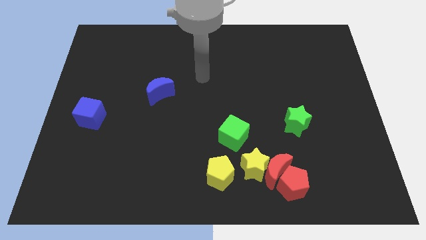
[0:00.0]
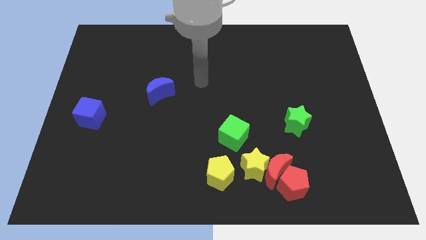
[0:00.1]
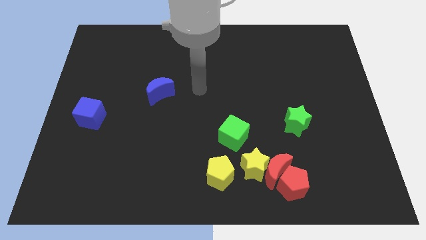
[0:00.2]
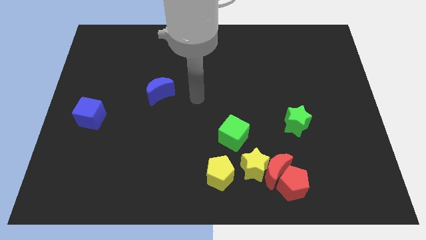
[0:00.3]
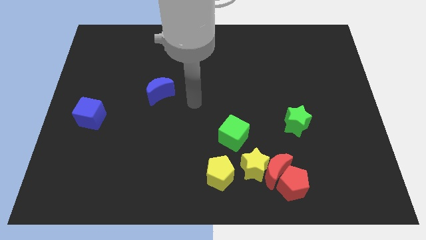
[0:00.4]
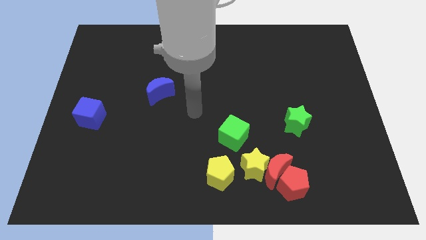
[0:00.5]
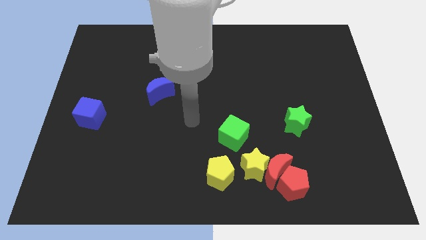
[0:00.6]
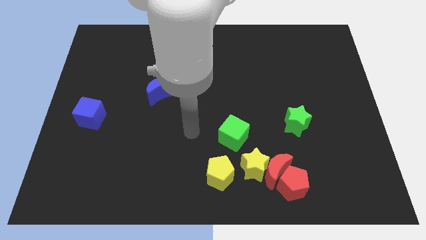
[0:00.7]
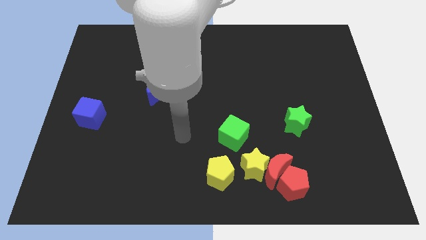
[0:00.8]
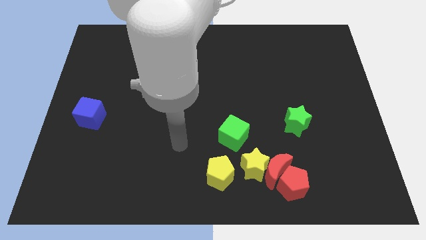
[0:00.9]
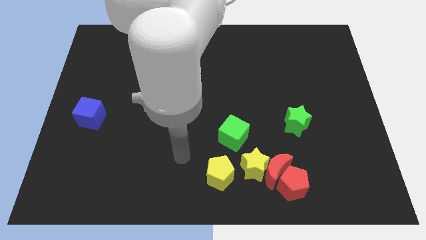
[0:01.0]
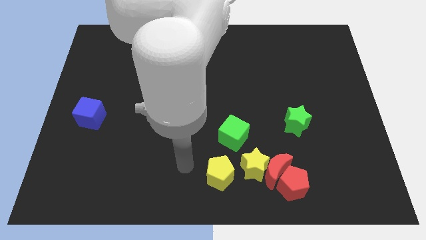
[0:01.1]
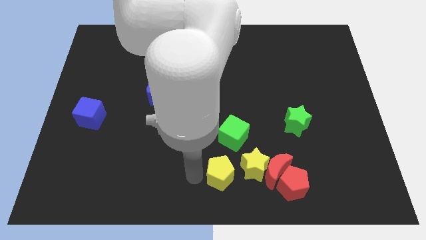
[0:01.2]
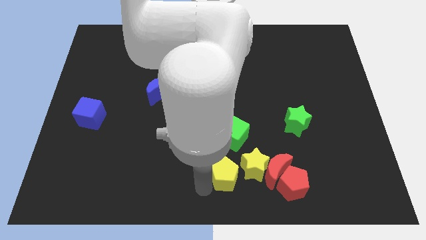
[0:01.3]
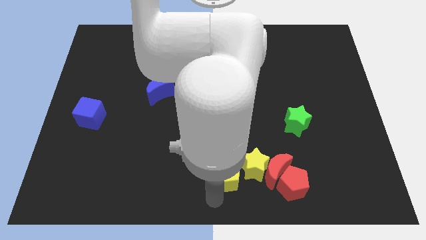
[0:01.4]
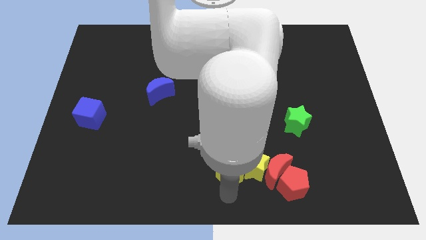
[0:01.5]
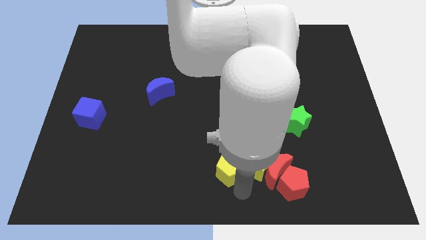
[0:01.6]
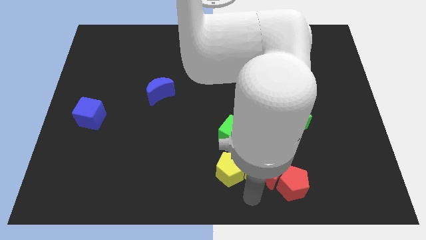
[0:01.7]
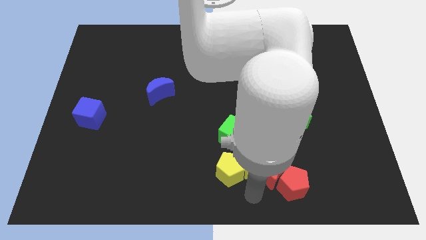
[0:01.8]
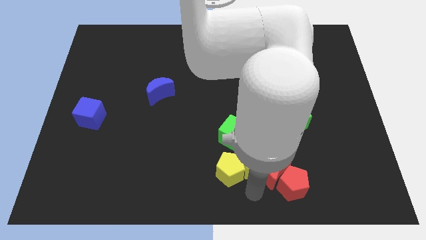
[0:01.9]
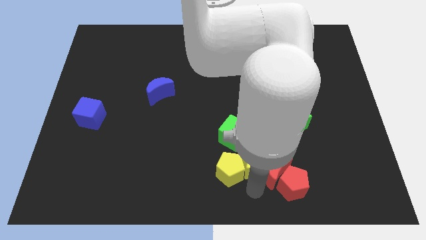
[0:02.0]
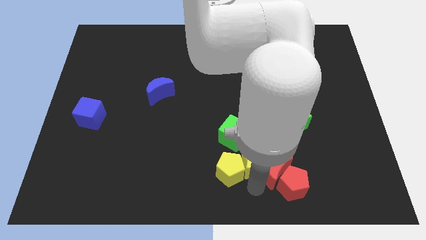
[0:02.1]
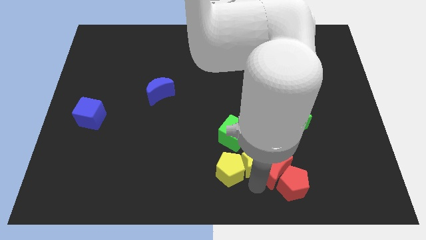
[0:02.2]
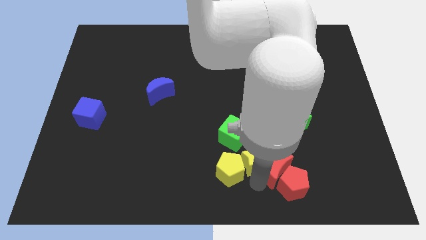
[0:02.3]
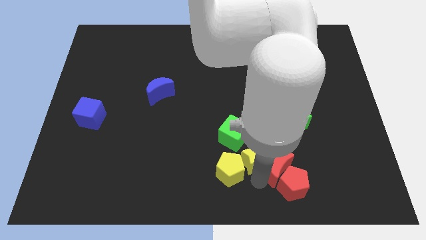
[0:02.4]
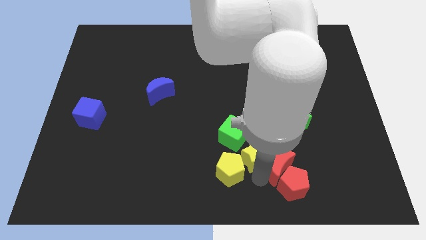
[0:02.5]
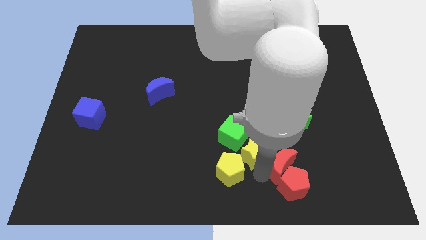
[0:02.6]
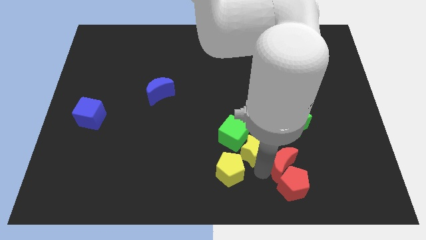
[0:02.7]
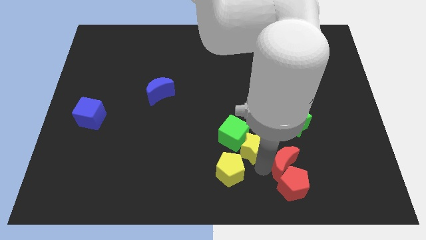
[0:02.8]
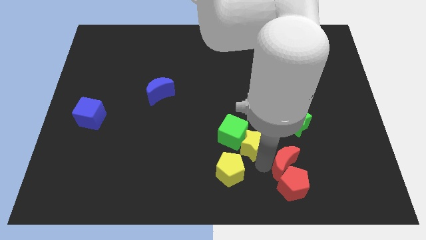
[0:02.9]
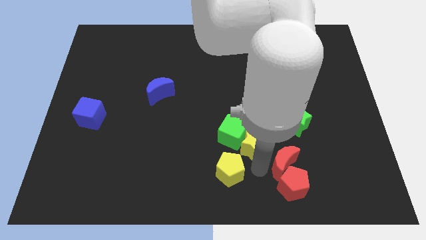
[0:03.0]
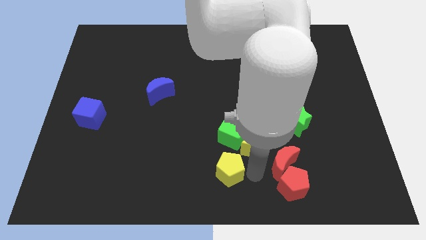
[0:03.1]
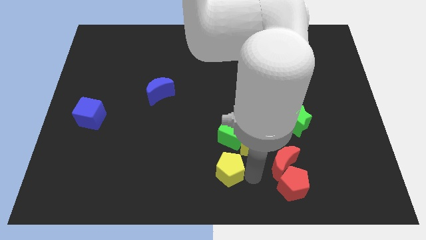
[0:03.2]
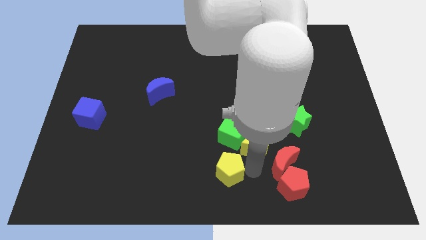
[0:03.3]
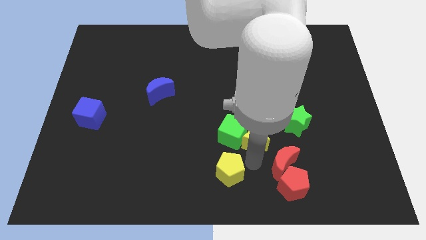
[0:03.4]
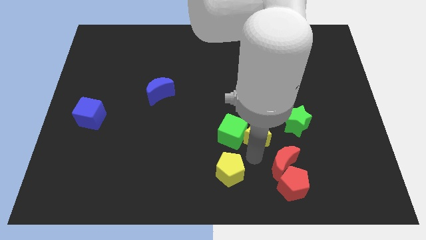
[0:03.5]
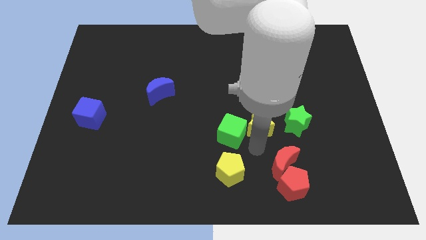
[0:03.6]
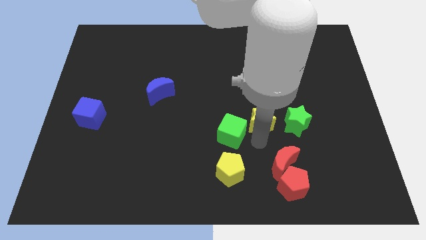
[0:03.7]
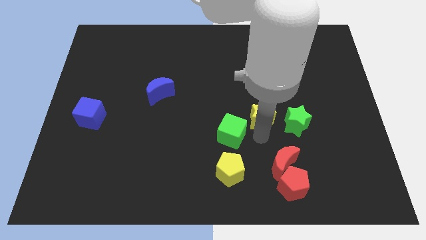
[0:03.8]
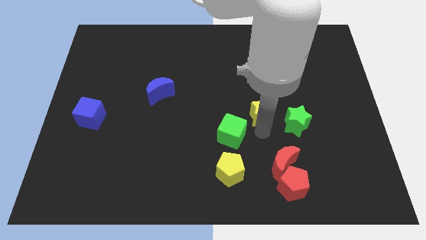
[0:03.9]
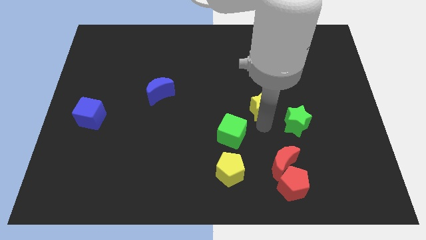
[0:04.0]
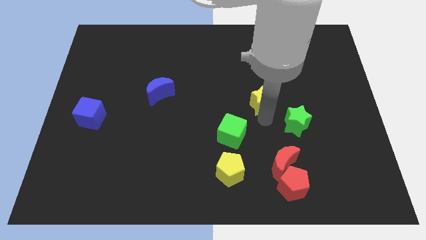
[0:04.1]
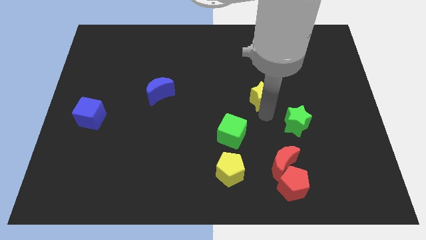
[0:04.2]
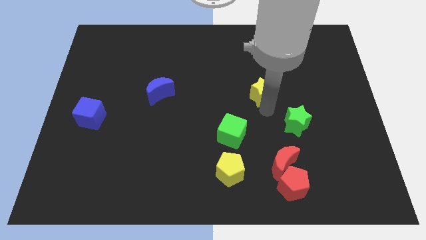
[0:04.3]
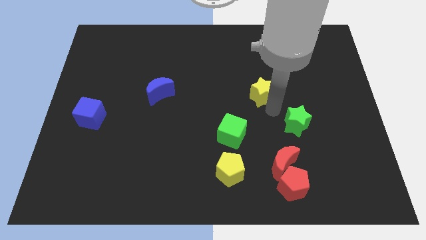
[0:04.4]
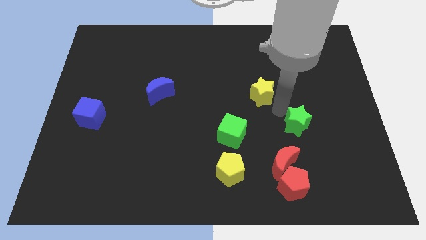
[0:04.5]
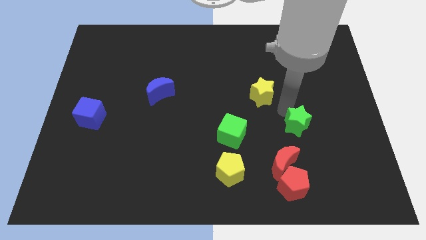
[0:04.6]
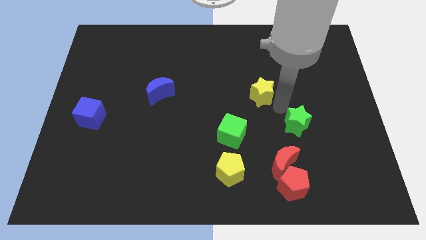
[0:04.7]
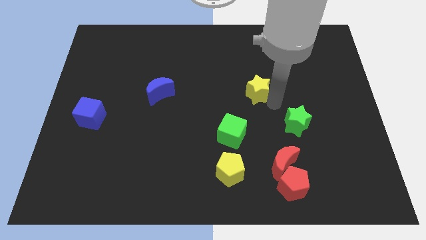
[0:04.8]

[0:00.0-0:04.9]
push the yellow star up

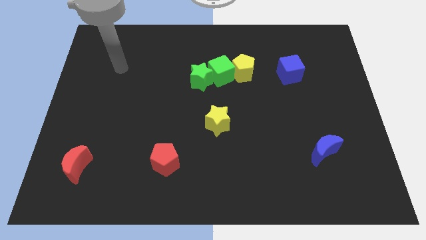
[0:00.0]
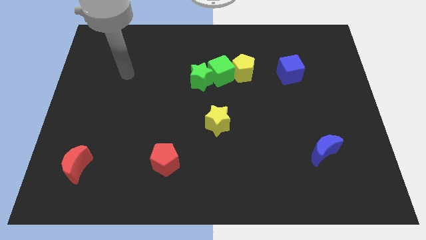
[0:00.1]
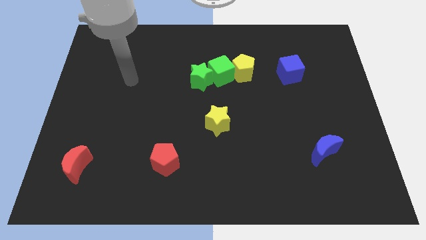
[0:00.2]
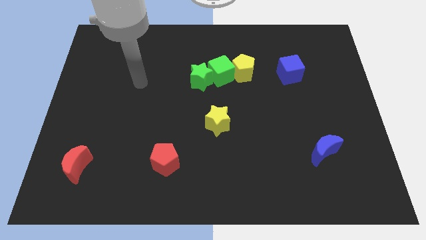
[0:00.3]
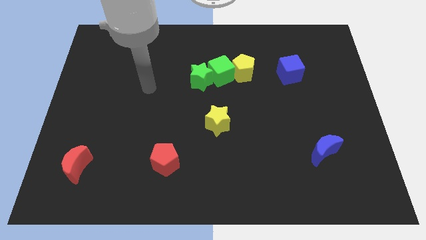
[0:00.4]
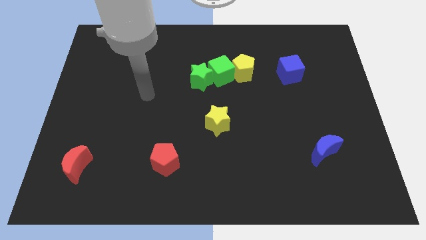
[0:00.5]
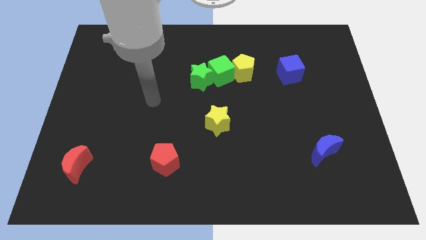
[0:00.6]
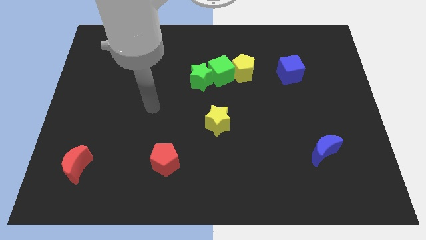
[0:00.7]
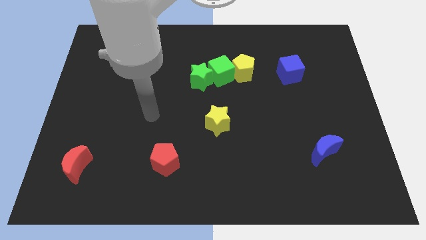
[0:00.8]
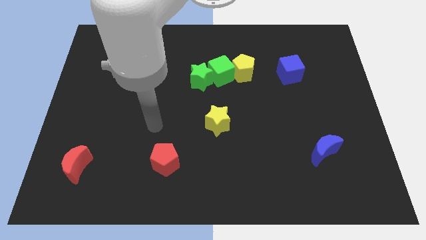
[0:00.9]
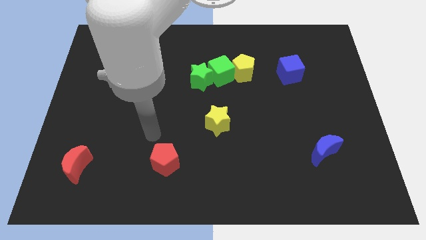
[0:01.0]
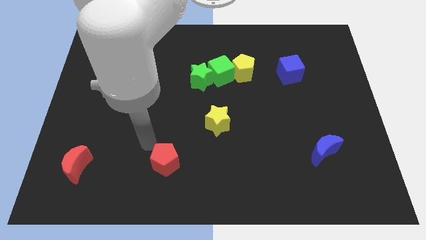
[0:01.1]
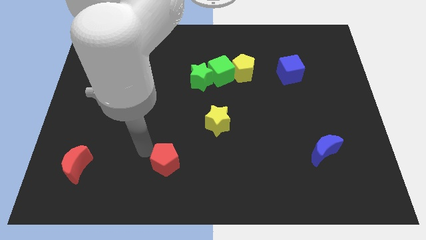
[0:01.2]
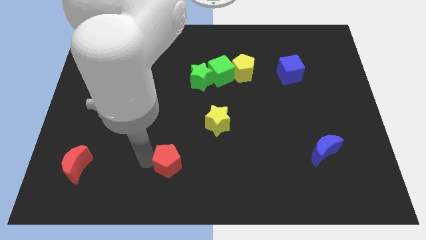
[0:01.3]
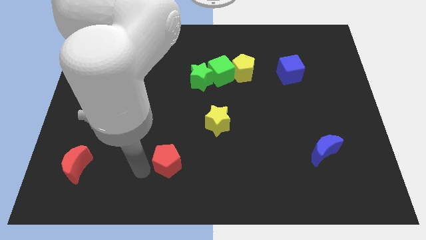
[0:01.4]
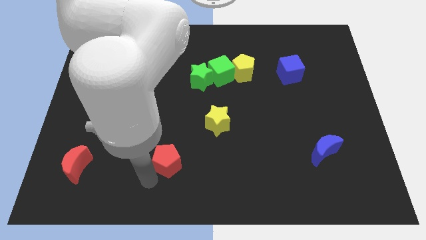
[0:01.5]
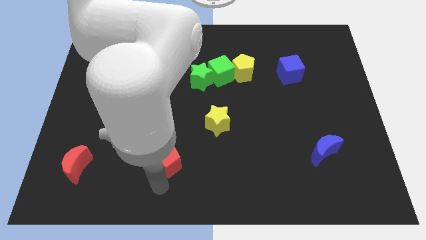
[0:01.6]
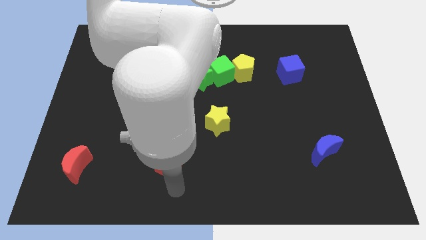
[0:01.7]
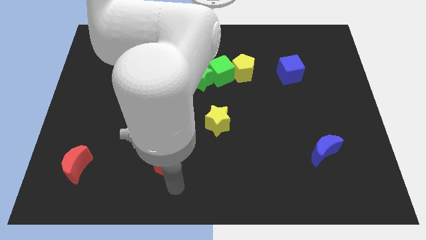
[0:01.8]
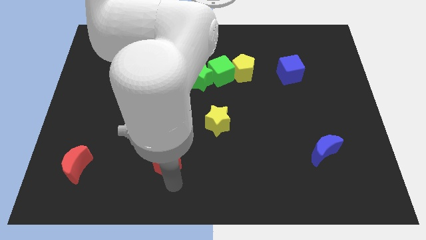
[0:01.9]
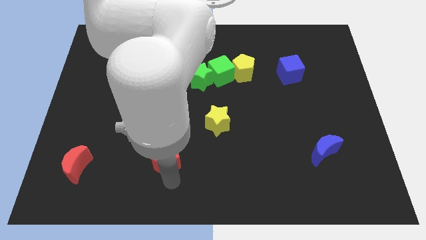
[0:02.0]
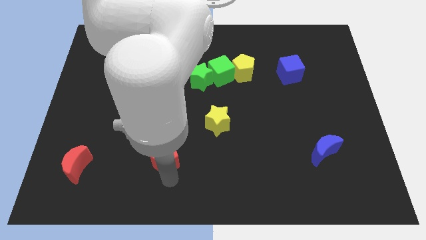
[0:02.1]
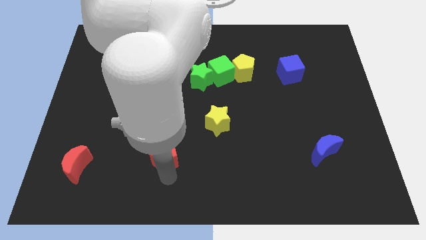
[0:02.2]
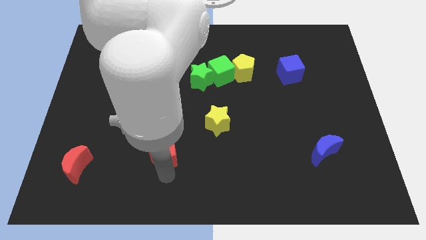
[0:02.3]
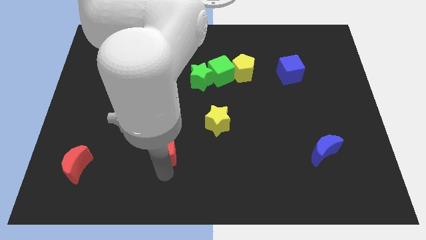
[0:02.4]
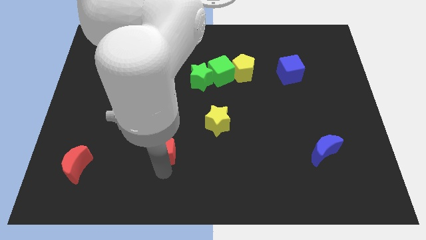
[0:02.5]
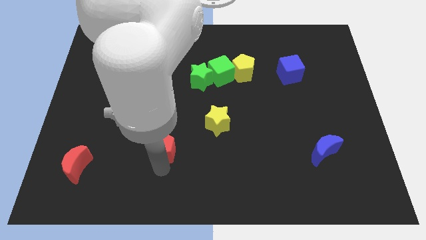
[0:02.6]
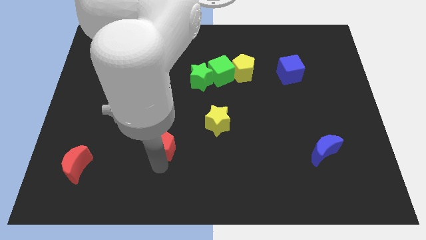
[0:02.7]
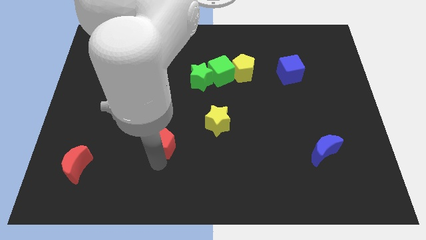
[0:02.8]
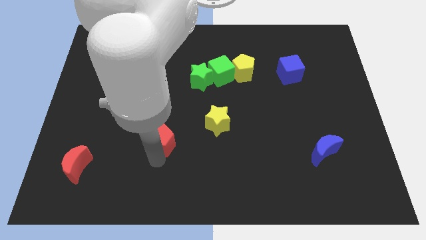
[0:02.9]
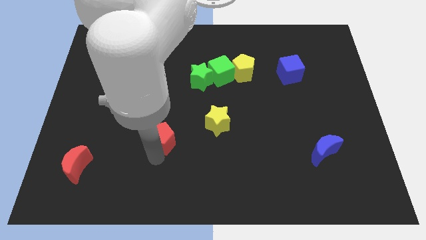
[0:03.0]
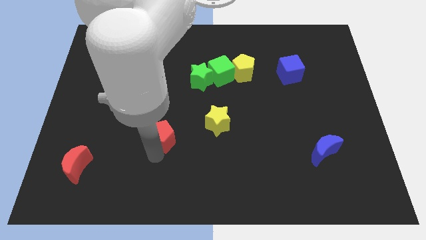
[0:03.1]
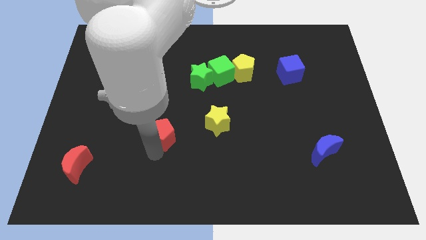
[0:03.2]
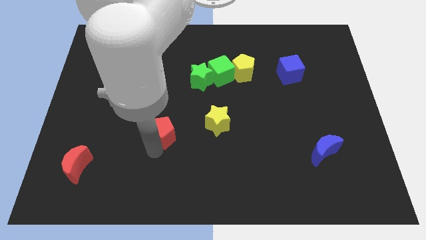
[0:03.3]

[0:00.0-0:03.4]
slide the red pentagon upwards a little
